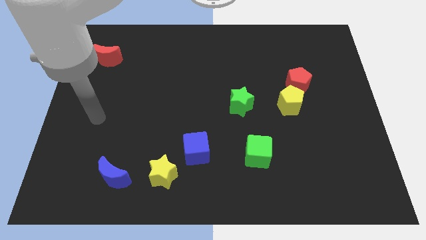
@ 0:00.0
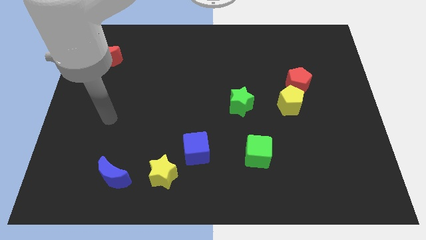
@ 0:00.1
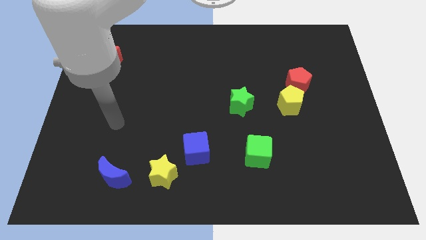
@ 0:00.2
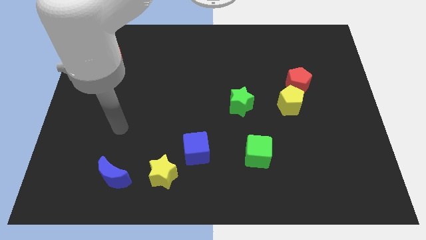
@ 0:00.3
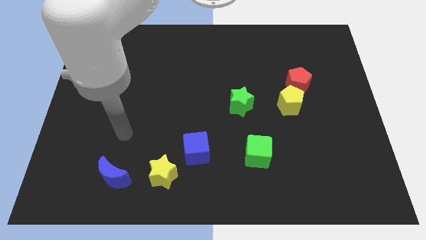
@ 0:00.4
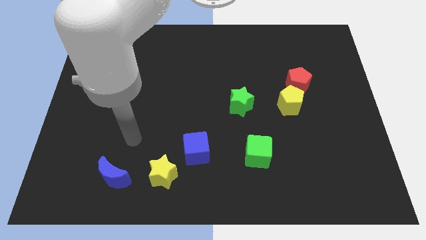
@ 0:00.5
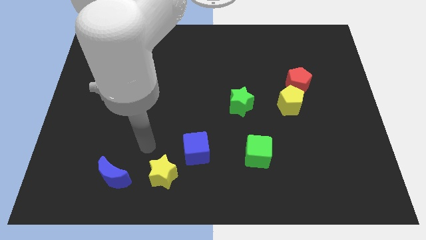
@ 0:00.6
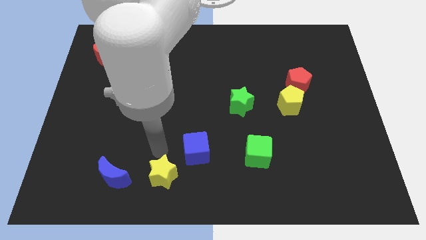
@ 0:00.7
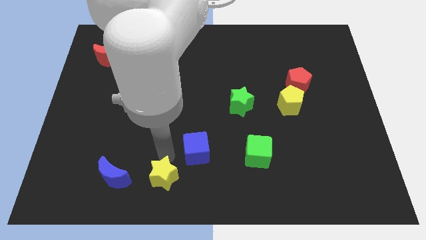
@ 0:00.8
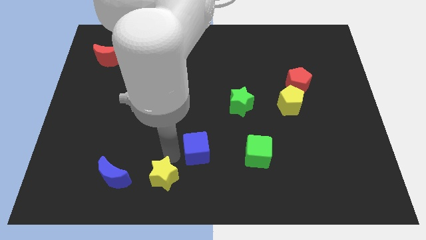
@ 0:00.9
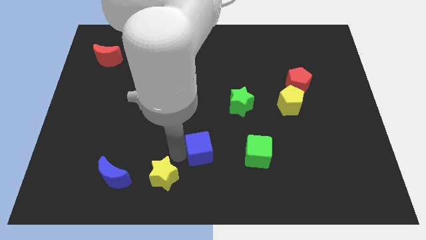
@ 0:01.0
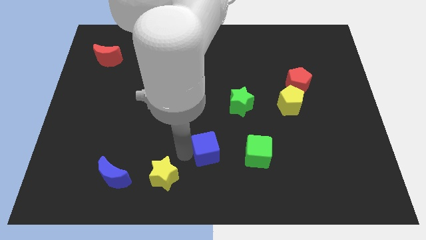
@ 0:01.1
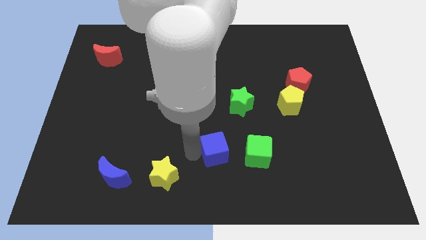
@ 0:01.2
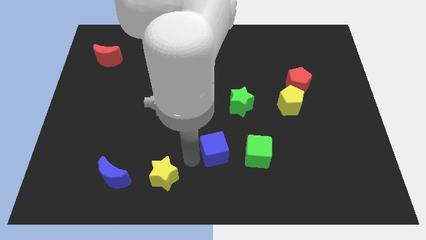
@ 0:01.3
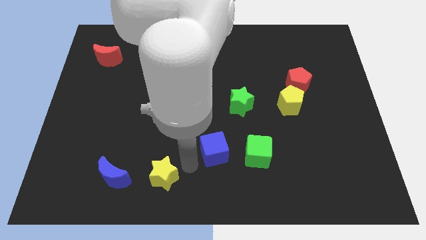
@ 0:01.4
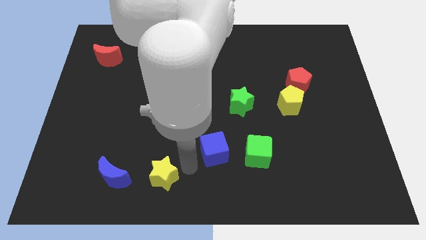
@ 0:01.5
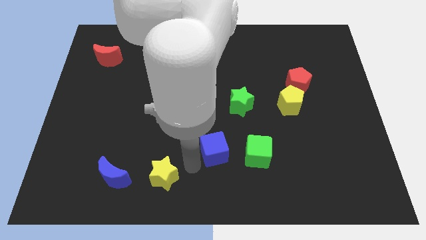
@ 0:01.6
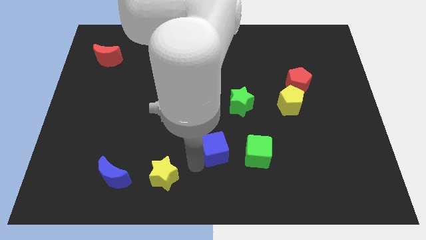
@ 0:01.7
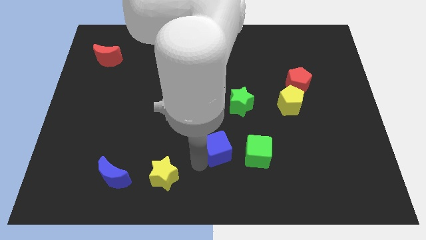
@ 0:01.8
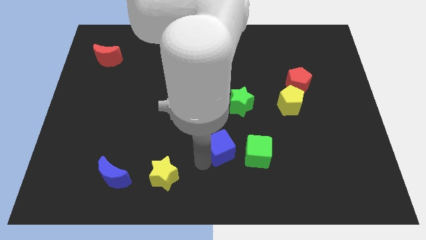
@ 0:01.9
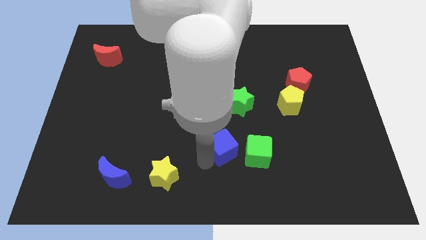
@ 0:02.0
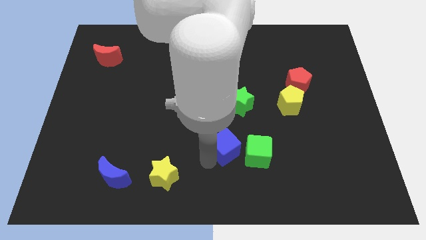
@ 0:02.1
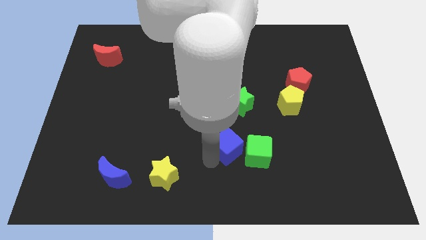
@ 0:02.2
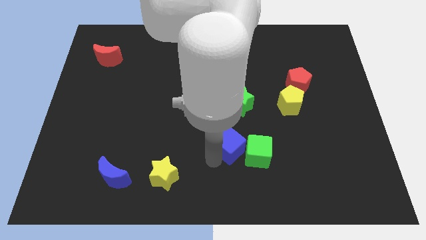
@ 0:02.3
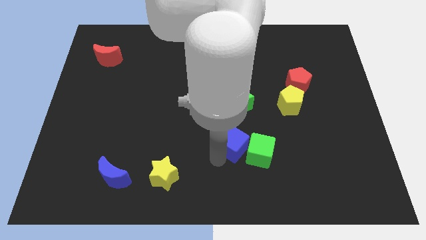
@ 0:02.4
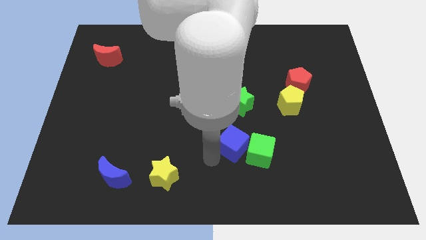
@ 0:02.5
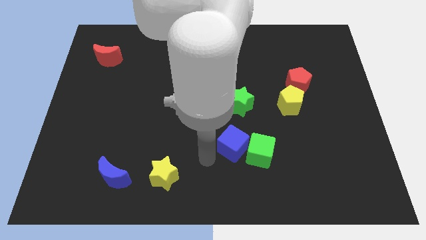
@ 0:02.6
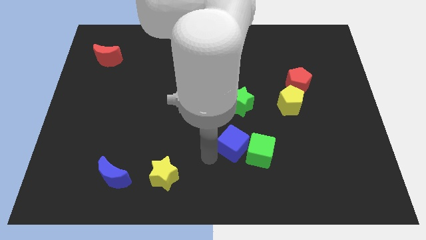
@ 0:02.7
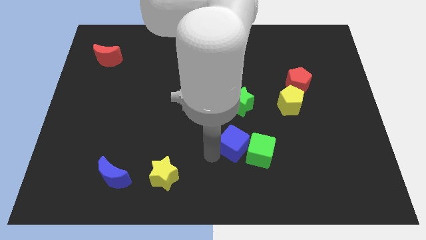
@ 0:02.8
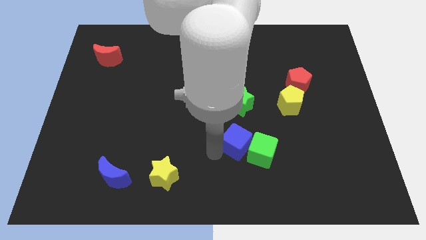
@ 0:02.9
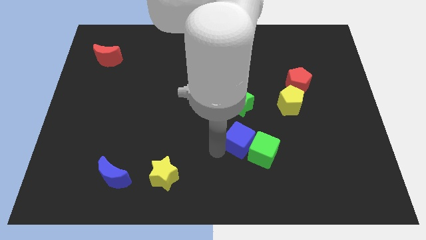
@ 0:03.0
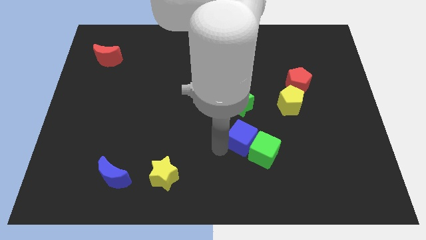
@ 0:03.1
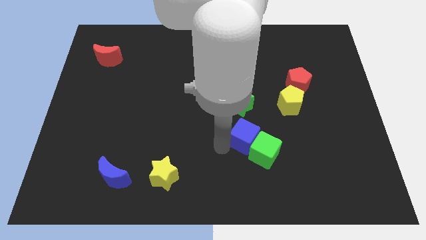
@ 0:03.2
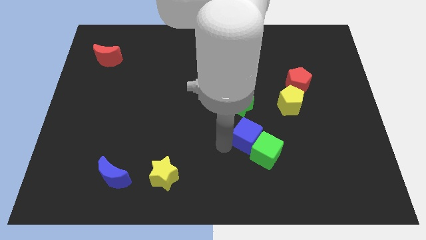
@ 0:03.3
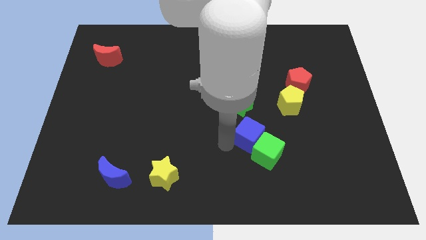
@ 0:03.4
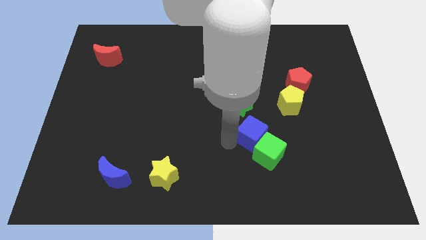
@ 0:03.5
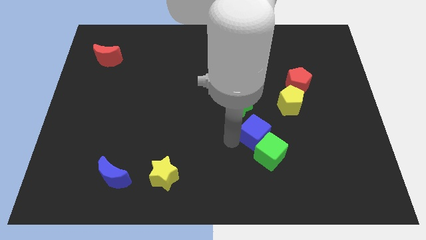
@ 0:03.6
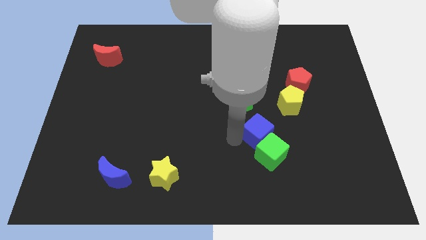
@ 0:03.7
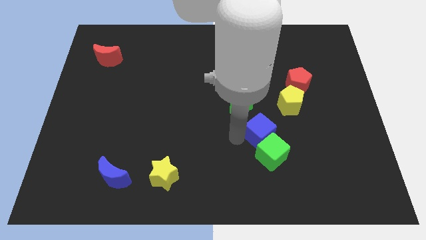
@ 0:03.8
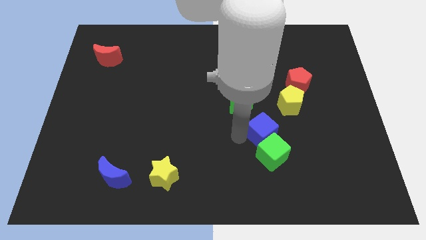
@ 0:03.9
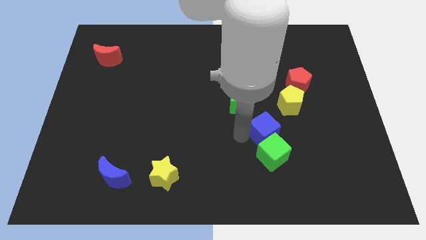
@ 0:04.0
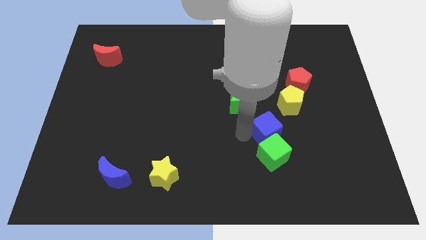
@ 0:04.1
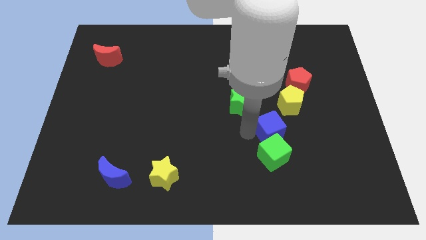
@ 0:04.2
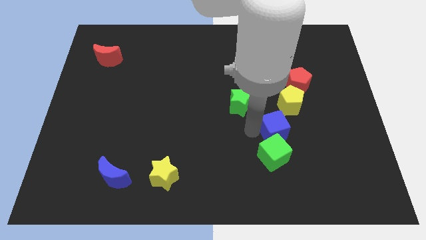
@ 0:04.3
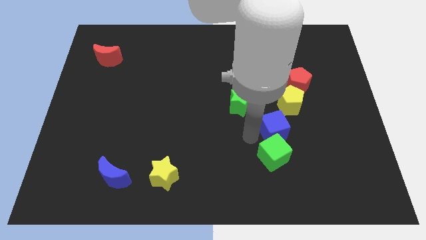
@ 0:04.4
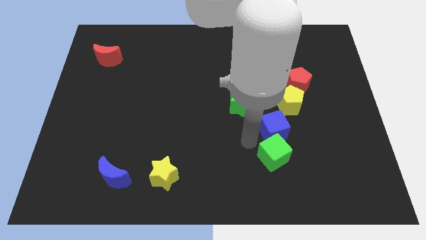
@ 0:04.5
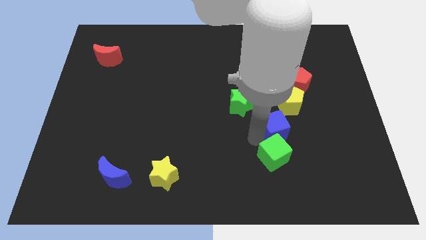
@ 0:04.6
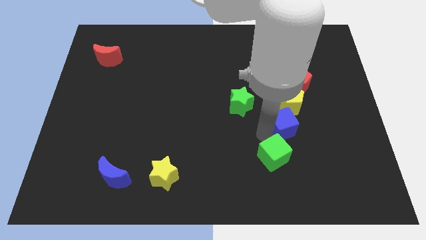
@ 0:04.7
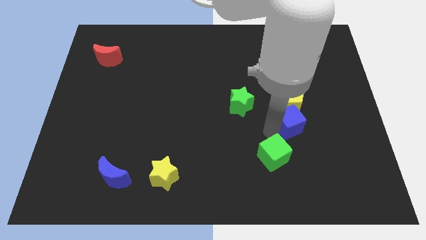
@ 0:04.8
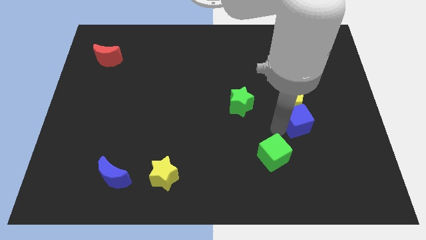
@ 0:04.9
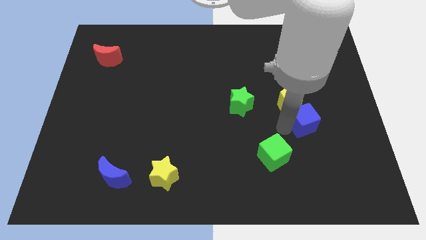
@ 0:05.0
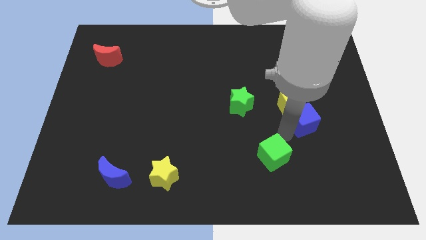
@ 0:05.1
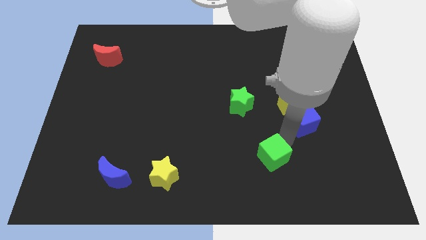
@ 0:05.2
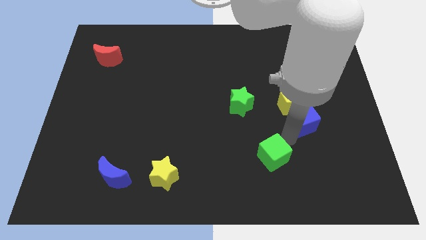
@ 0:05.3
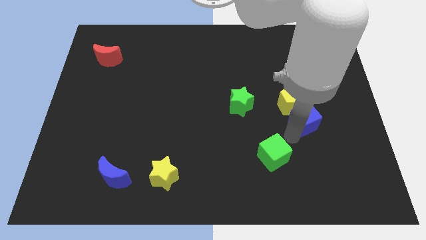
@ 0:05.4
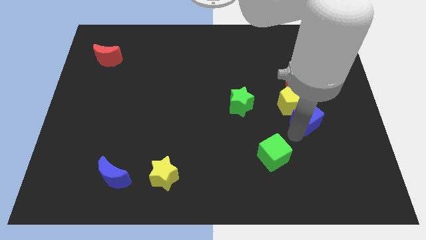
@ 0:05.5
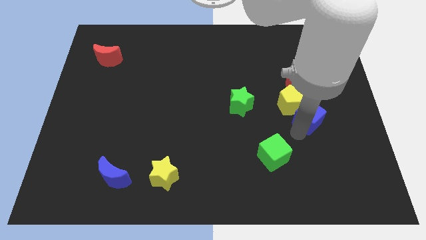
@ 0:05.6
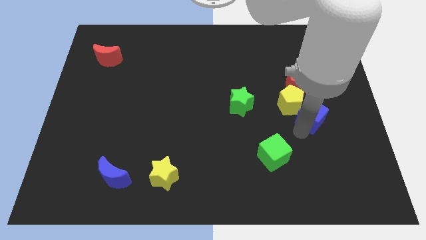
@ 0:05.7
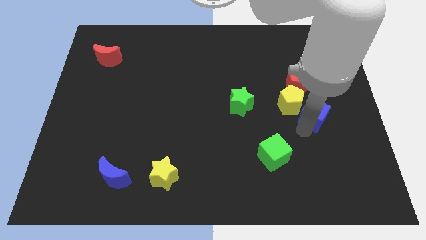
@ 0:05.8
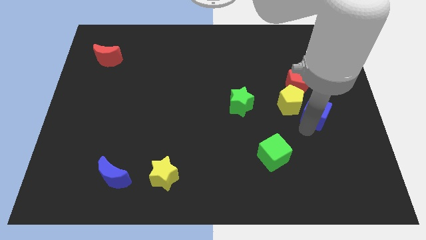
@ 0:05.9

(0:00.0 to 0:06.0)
push the blue cube diagonally down and to the right of the red pentagon

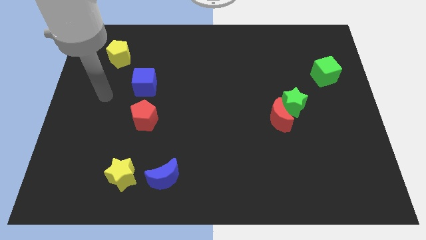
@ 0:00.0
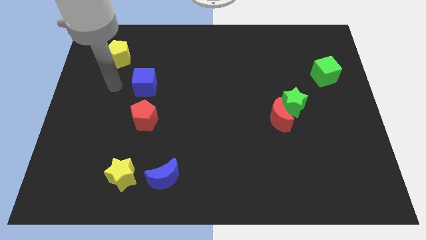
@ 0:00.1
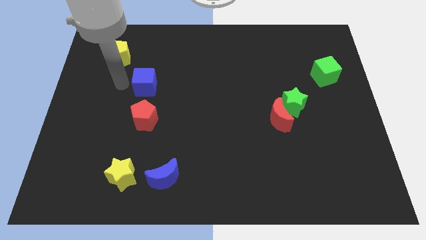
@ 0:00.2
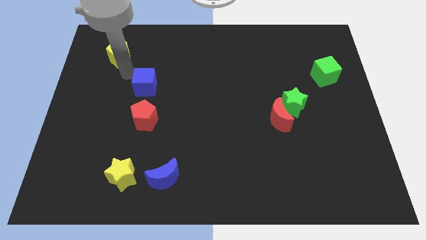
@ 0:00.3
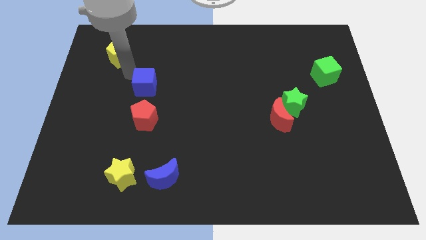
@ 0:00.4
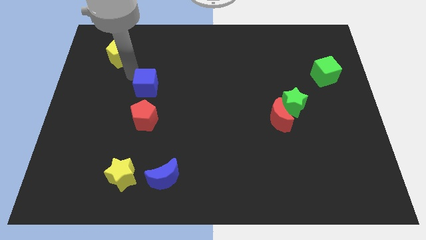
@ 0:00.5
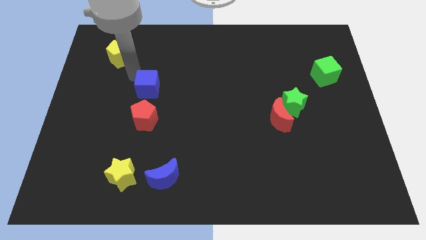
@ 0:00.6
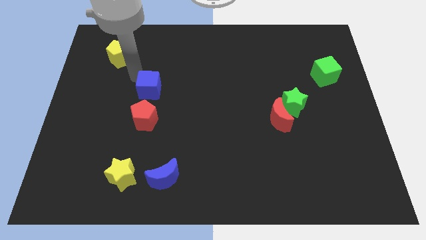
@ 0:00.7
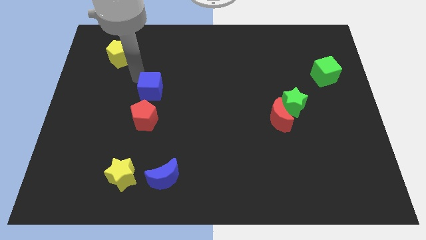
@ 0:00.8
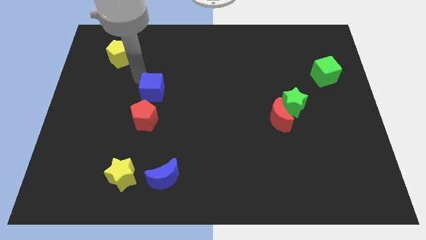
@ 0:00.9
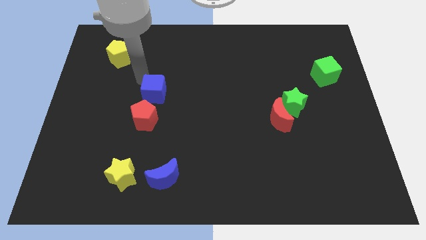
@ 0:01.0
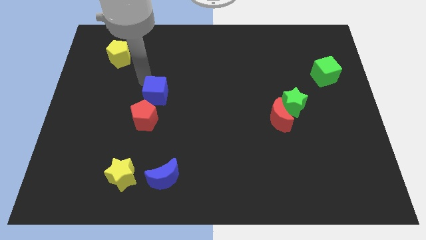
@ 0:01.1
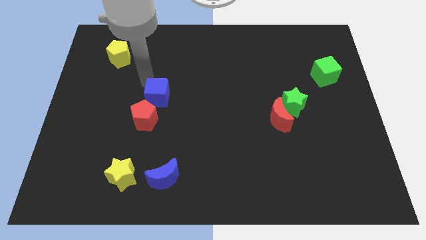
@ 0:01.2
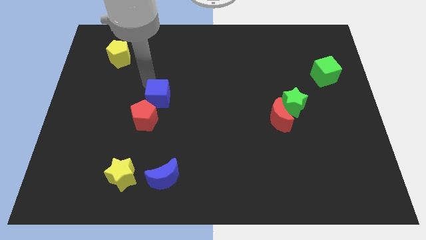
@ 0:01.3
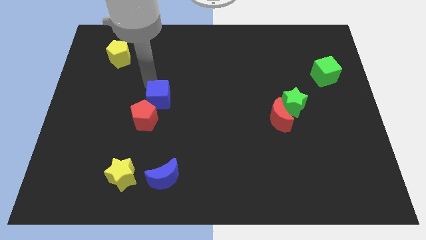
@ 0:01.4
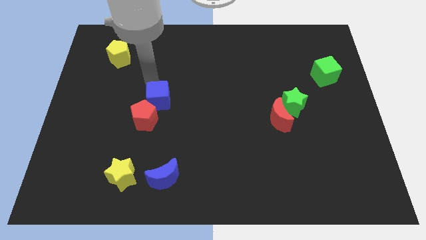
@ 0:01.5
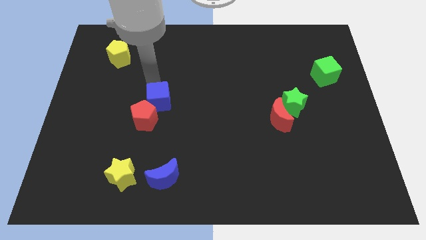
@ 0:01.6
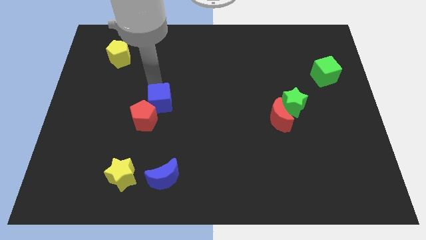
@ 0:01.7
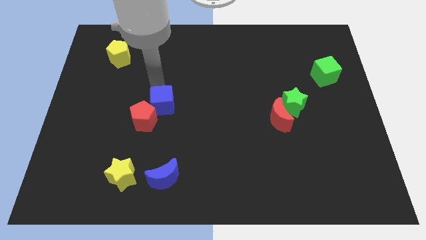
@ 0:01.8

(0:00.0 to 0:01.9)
move the blue cube just right of the red pentagon
